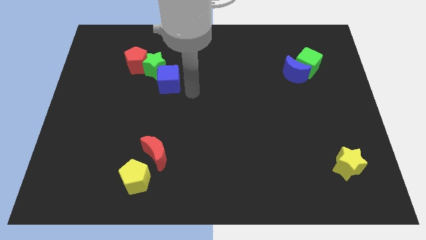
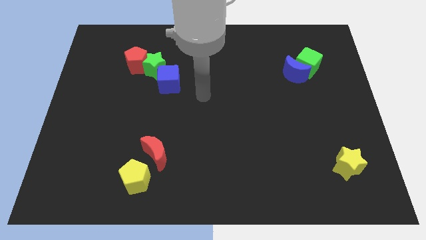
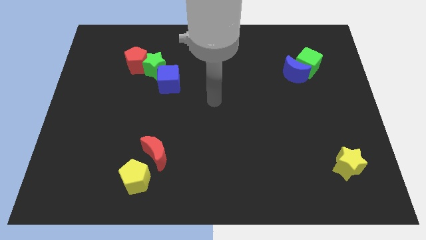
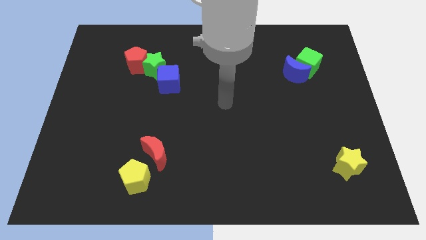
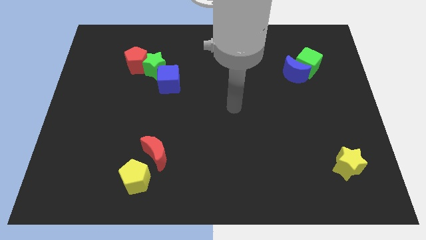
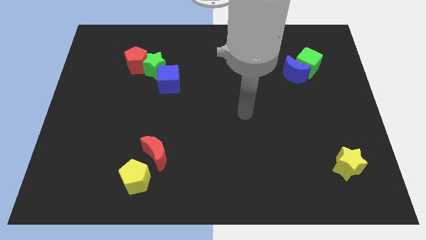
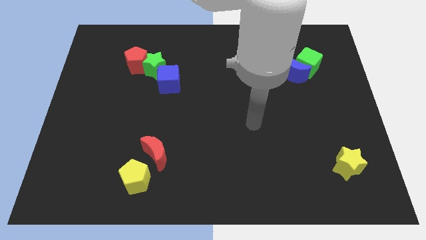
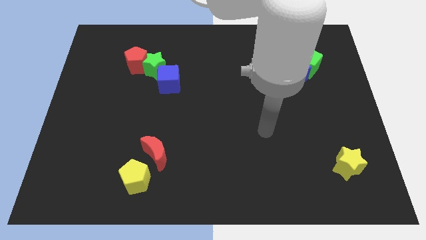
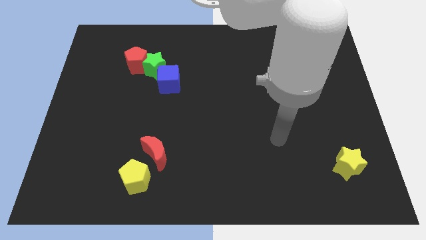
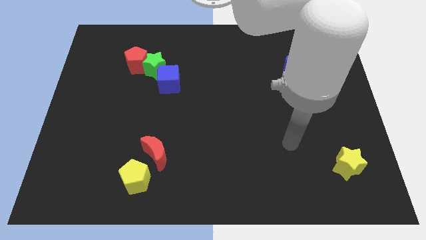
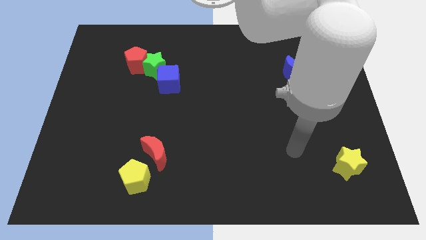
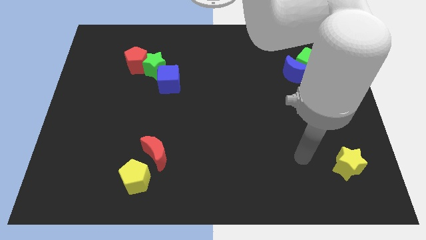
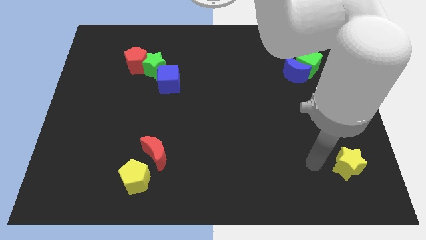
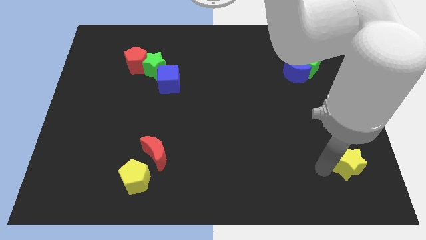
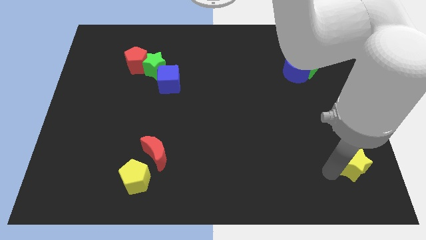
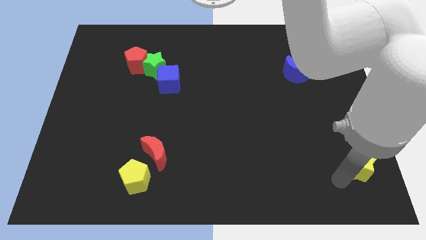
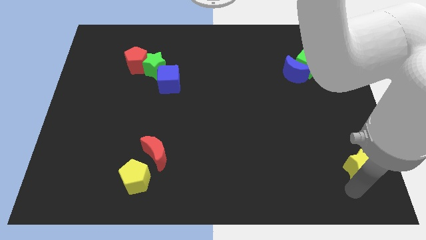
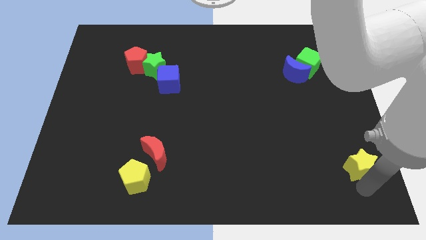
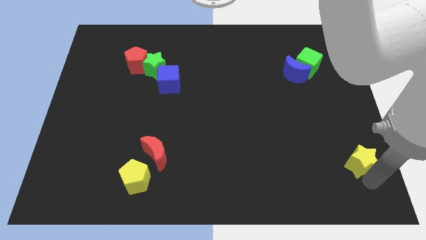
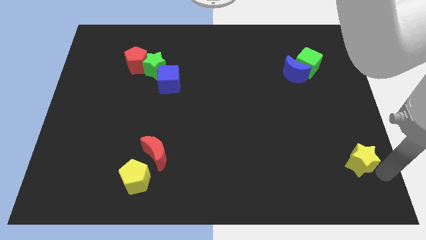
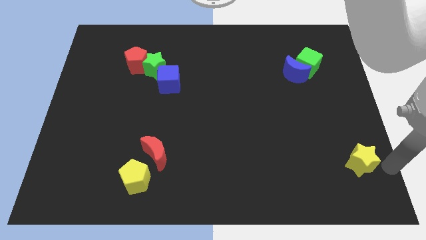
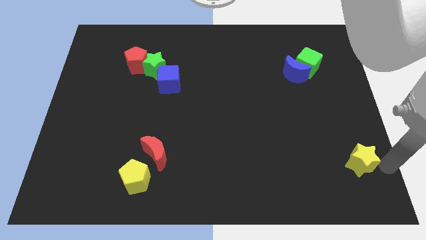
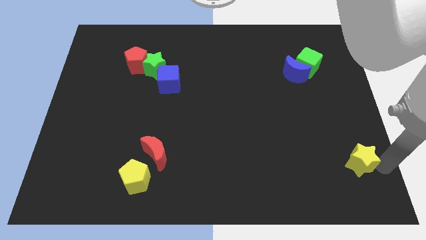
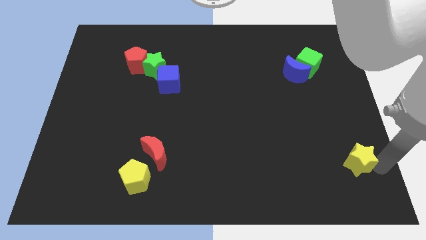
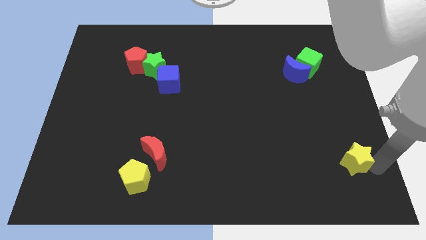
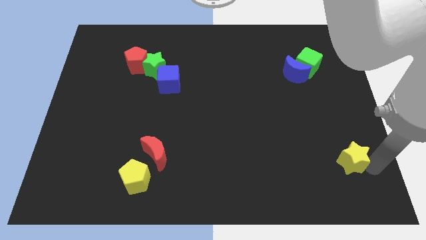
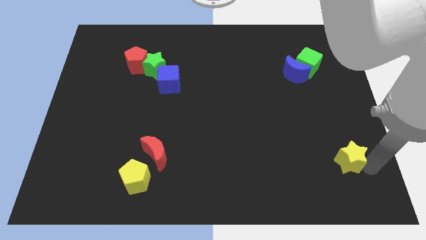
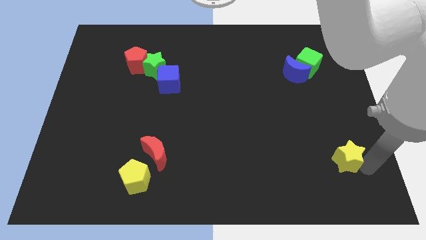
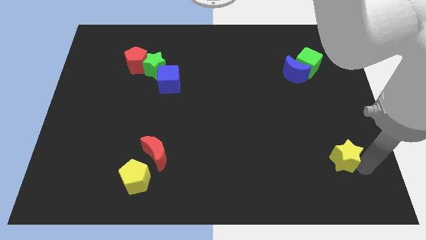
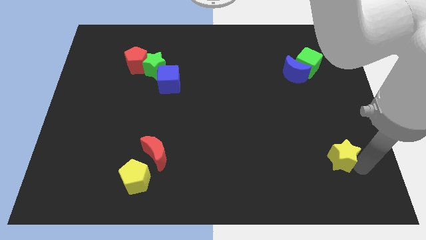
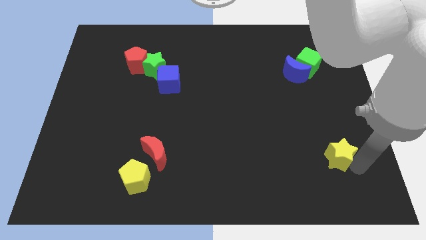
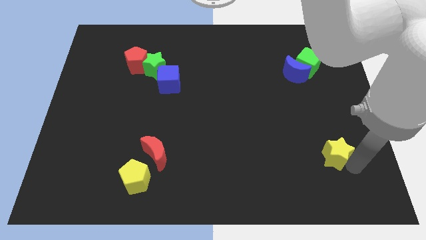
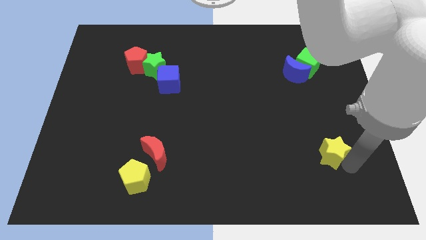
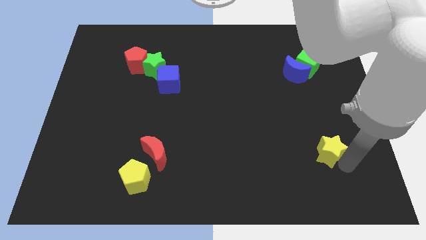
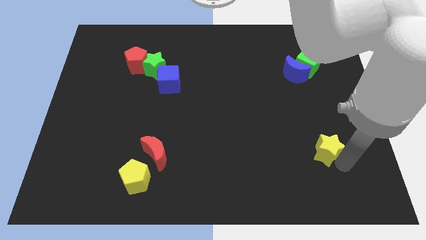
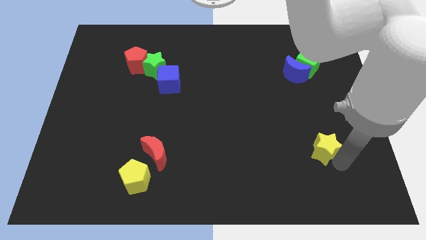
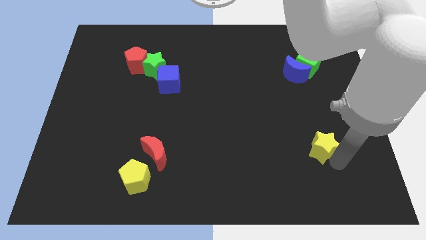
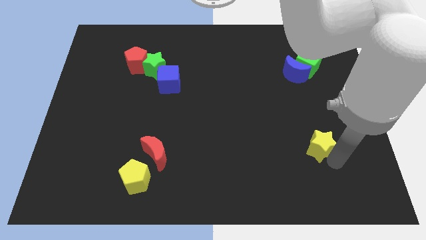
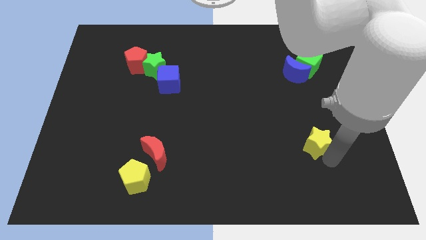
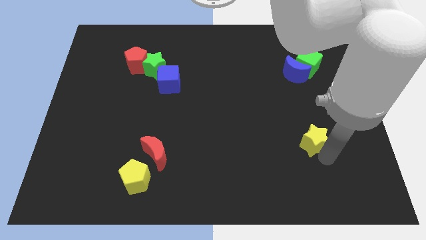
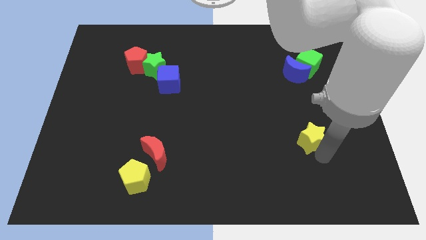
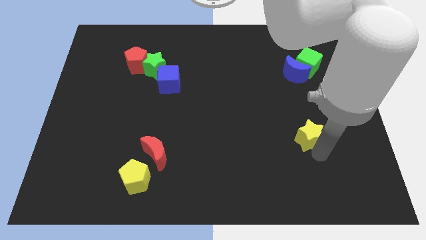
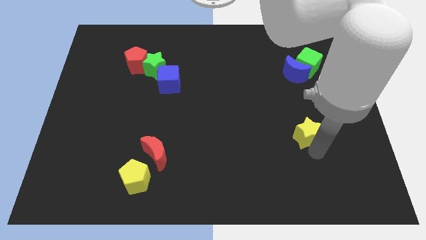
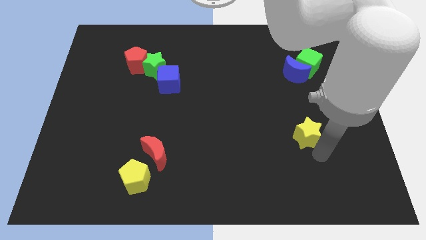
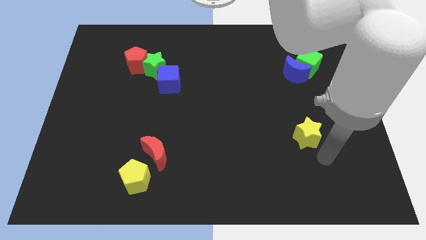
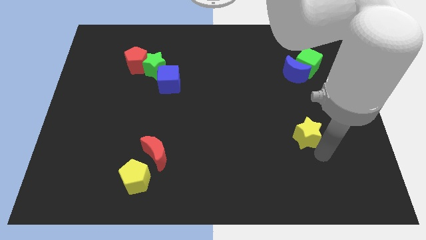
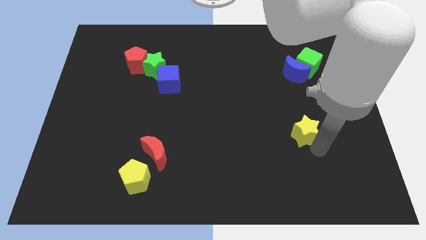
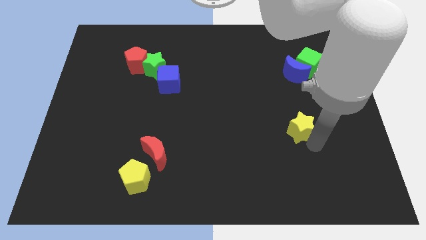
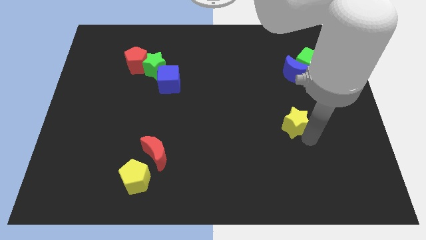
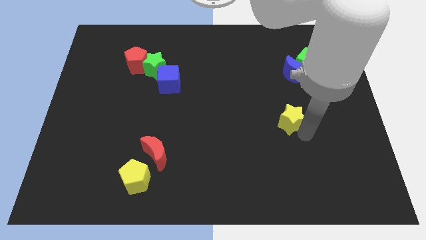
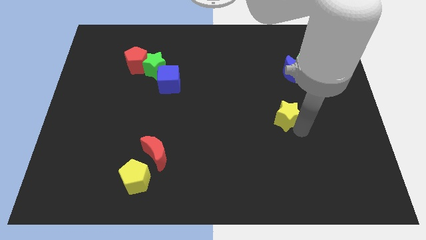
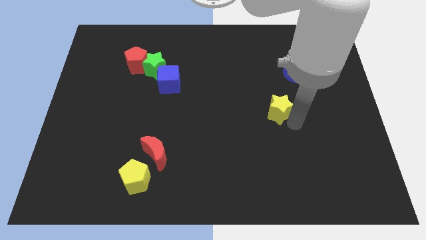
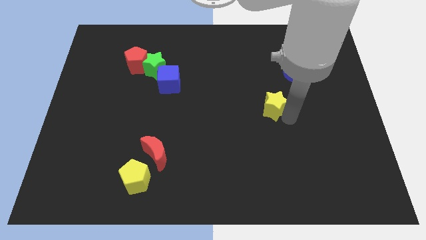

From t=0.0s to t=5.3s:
slide the yellow star upwards and then left

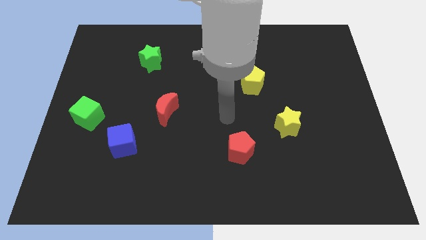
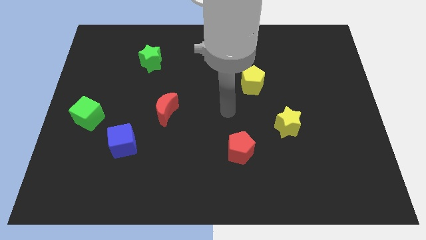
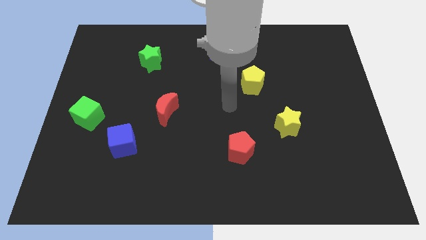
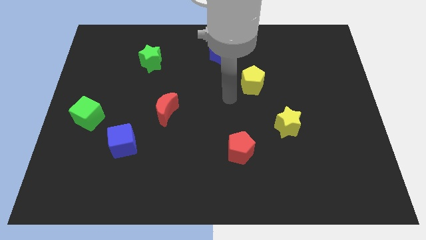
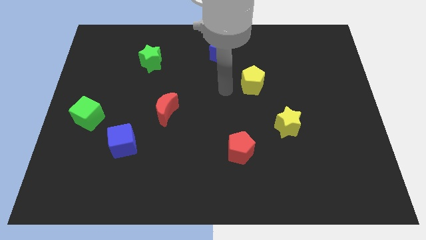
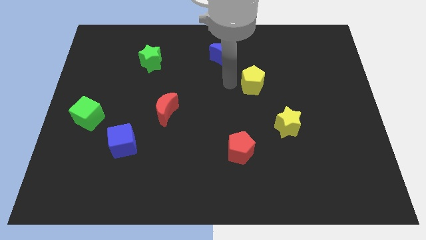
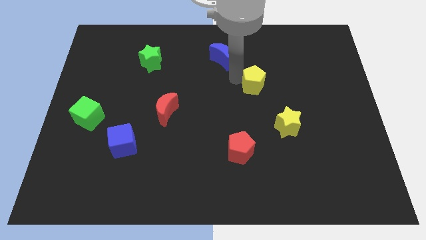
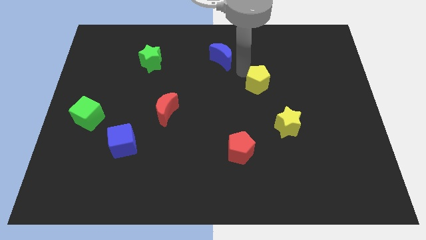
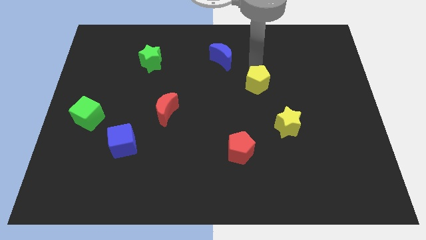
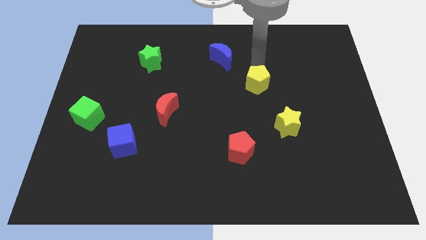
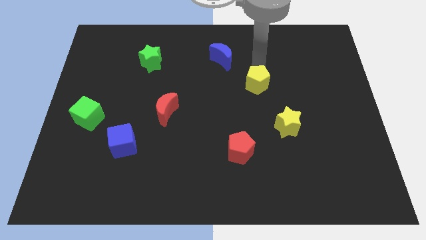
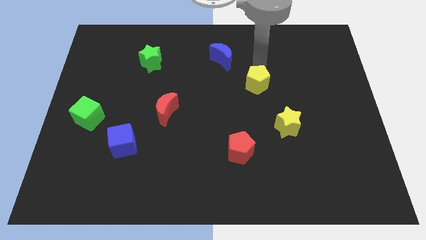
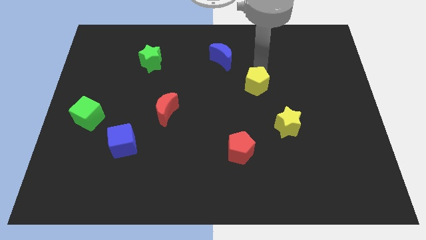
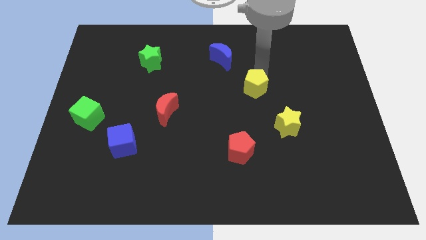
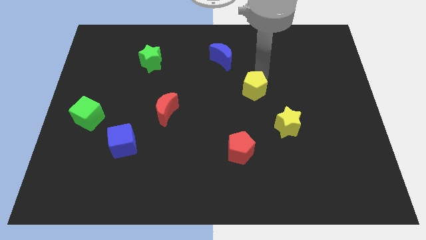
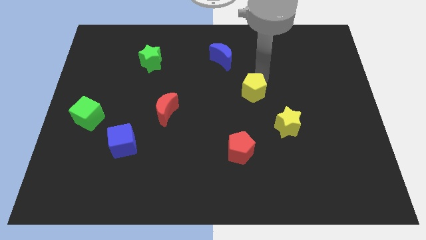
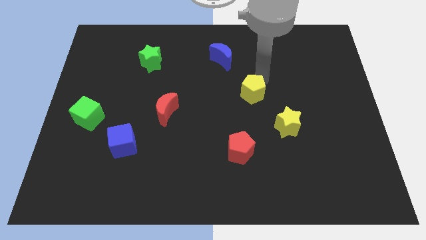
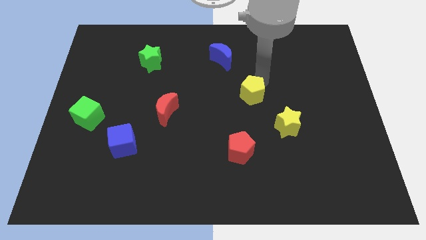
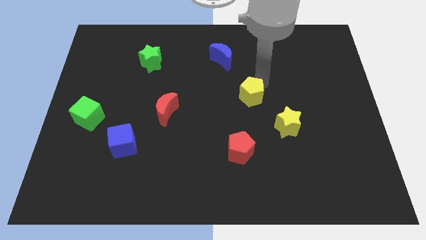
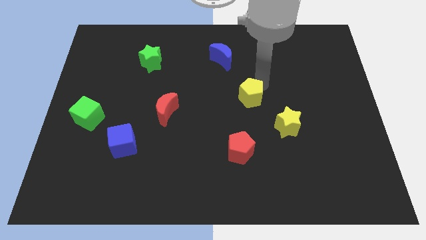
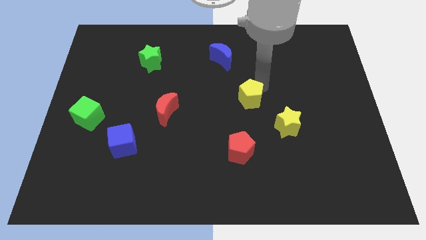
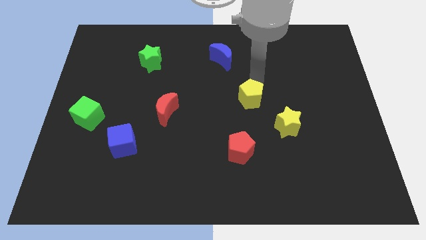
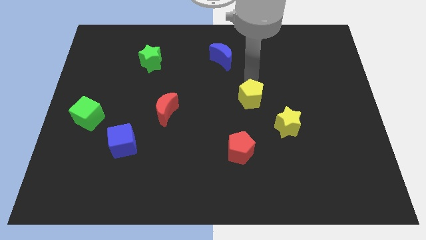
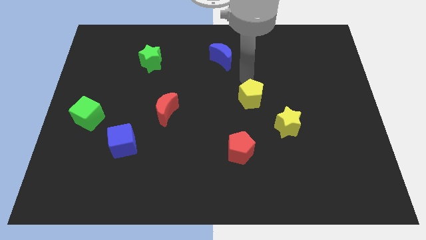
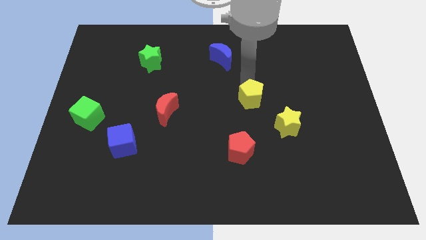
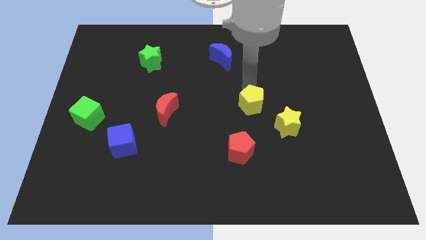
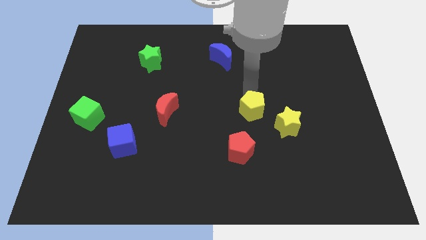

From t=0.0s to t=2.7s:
slightly push the yellow pentagon down

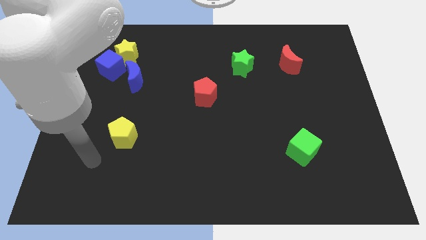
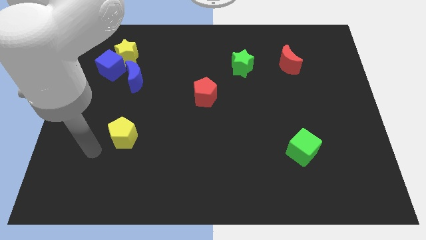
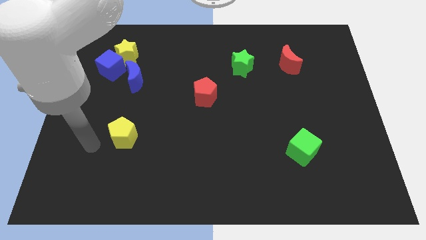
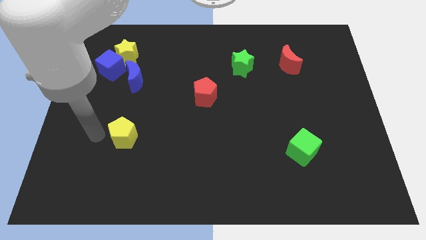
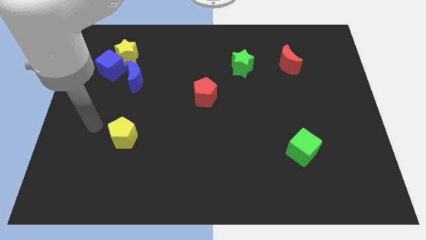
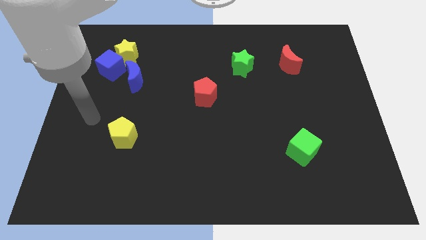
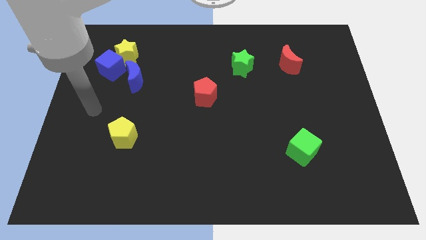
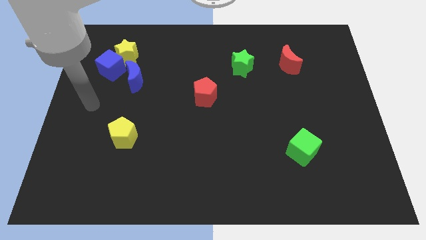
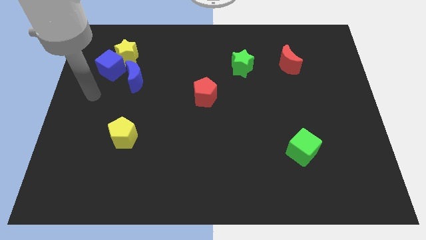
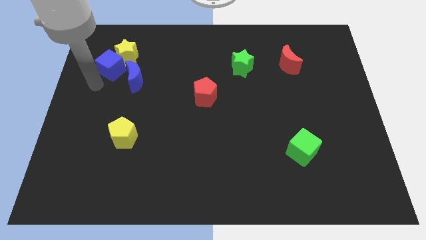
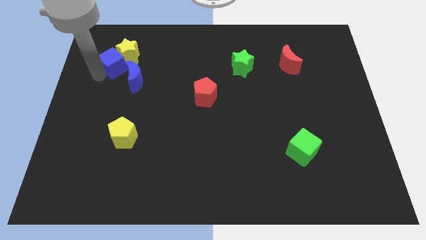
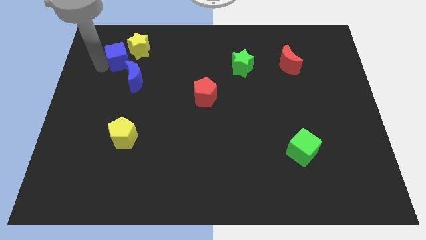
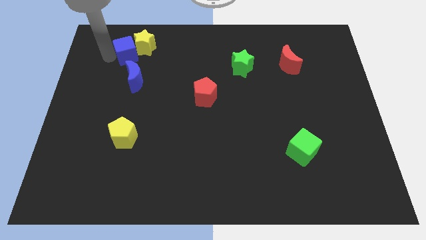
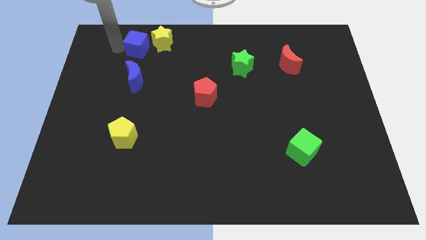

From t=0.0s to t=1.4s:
push the yellow star right slightly
